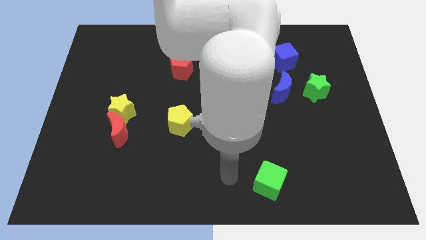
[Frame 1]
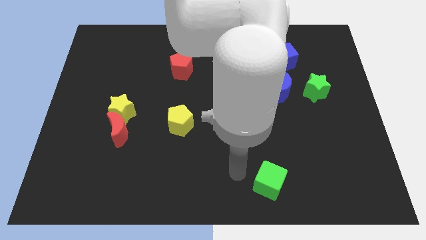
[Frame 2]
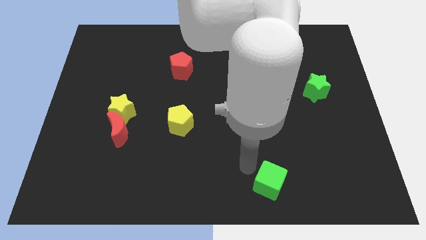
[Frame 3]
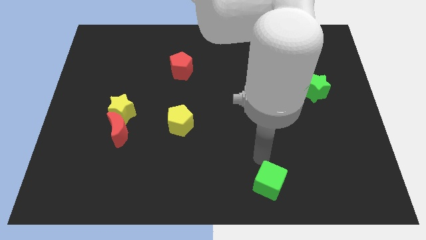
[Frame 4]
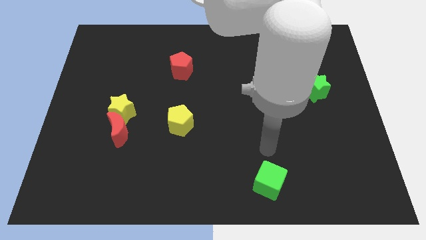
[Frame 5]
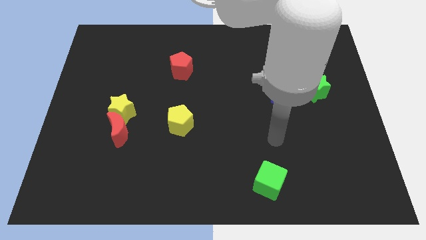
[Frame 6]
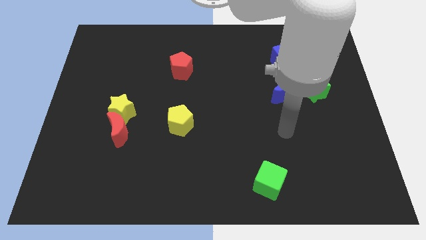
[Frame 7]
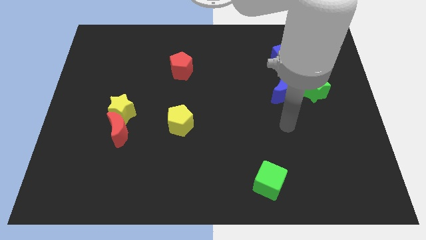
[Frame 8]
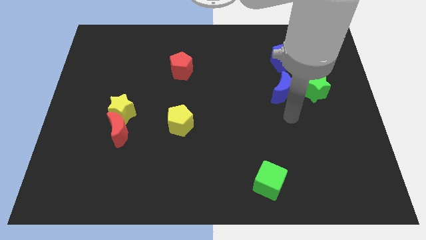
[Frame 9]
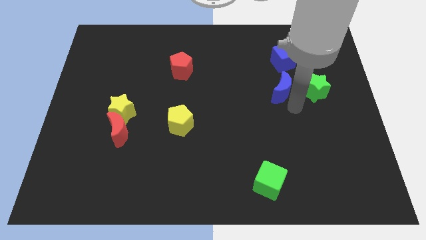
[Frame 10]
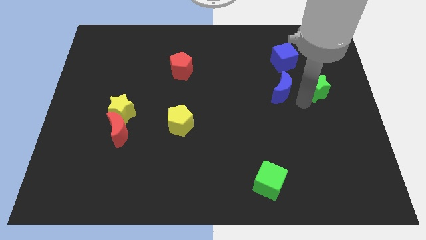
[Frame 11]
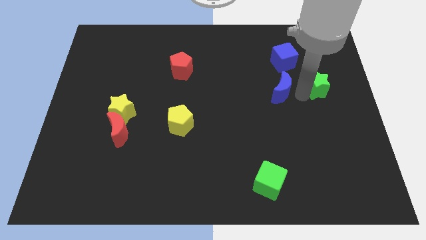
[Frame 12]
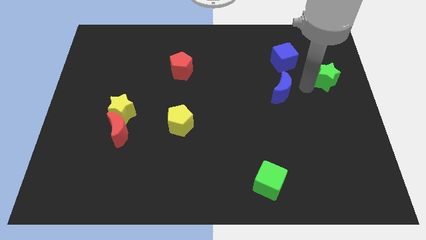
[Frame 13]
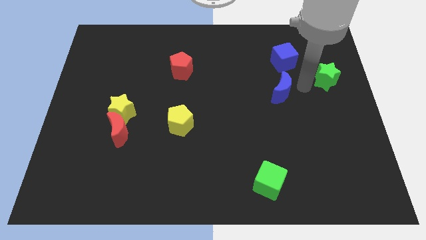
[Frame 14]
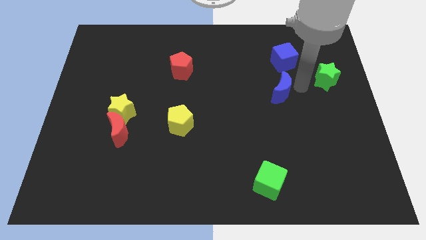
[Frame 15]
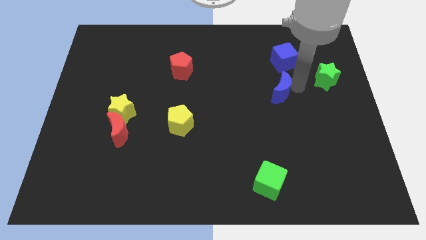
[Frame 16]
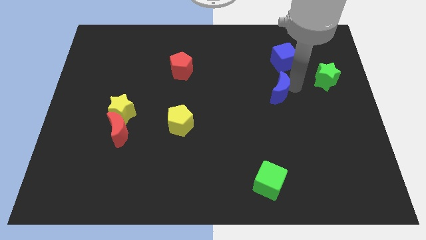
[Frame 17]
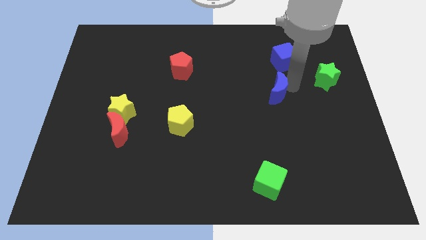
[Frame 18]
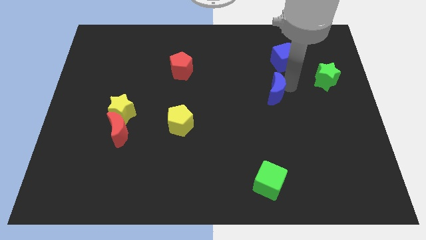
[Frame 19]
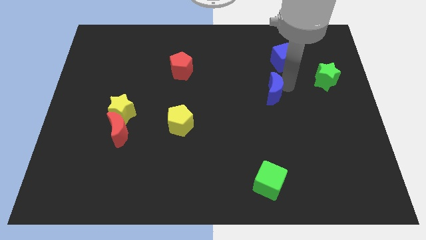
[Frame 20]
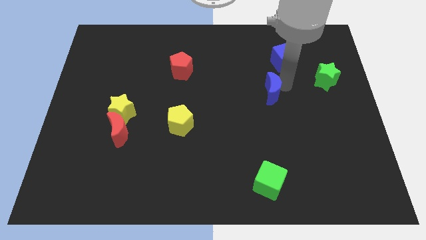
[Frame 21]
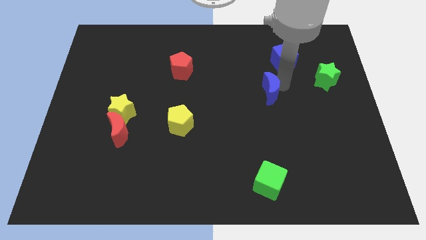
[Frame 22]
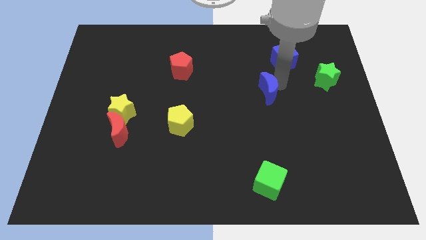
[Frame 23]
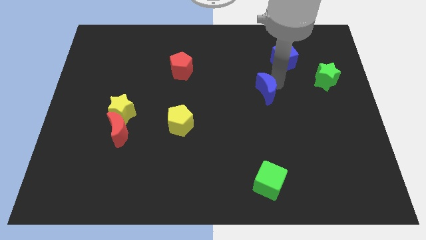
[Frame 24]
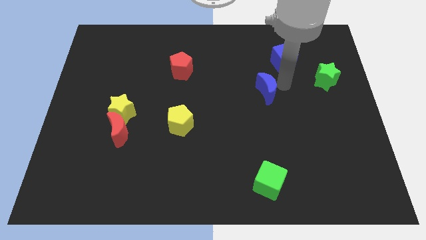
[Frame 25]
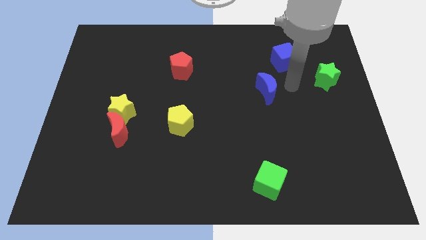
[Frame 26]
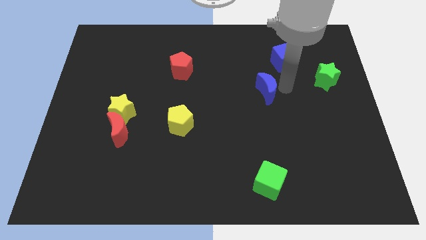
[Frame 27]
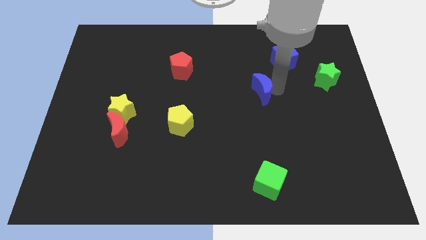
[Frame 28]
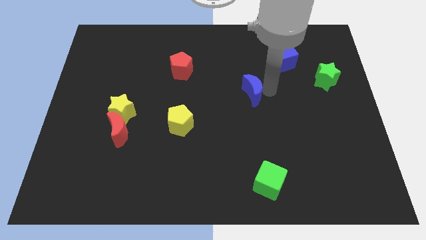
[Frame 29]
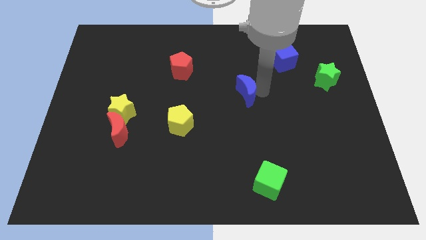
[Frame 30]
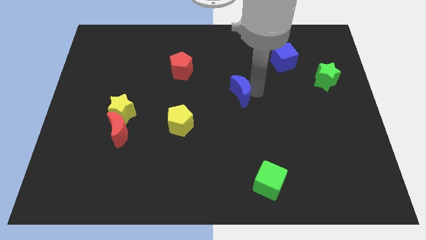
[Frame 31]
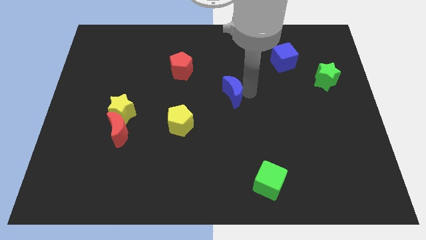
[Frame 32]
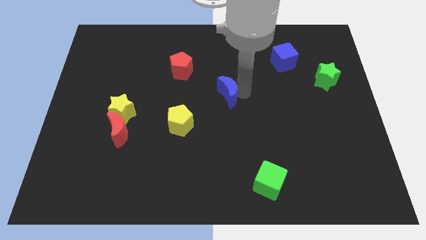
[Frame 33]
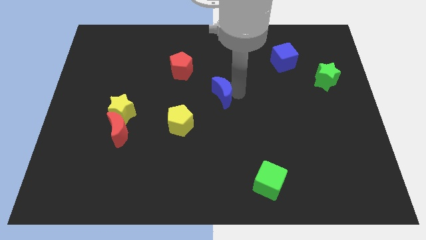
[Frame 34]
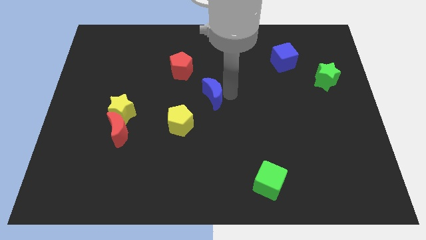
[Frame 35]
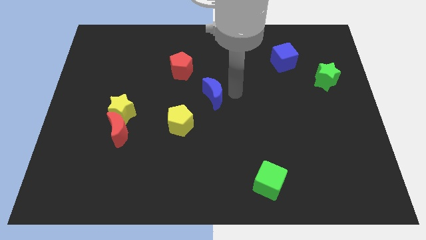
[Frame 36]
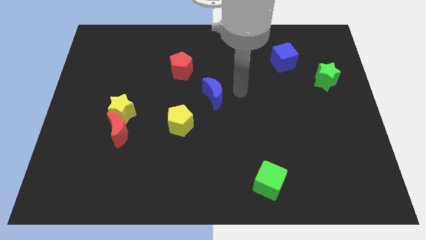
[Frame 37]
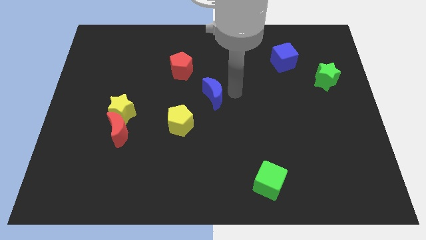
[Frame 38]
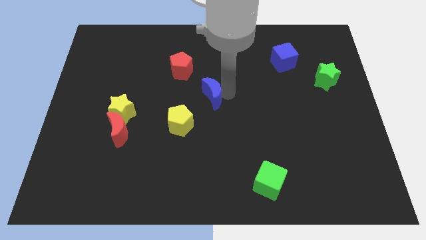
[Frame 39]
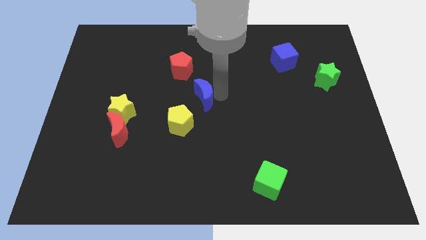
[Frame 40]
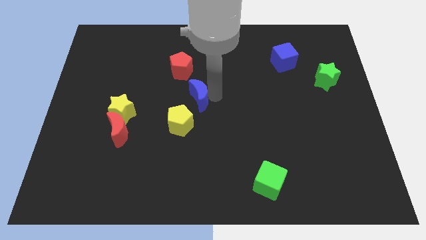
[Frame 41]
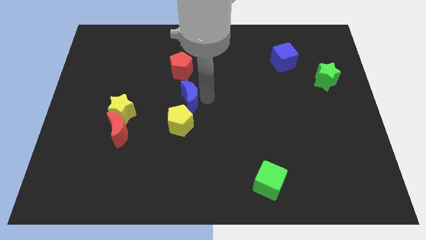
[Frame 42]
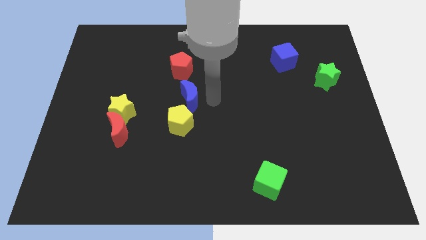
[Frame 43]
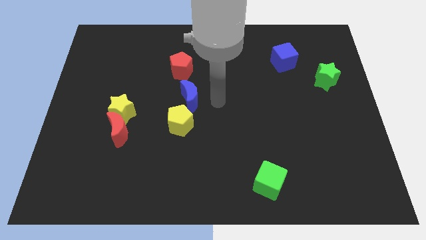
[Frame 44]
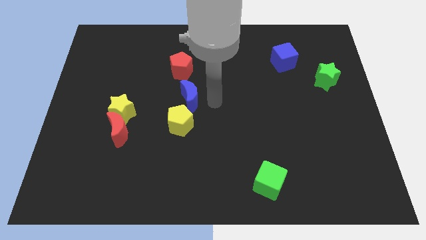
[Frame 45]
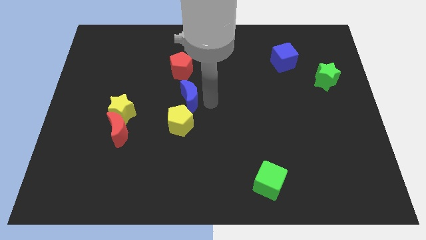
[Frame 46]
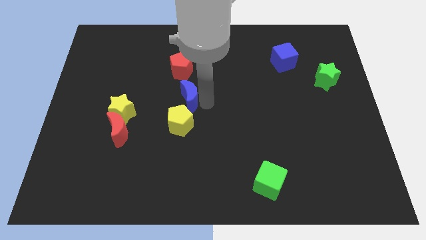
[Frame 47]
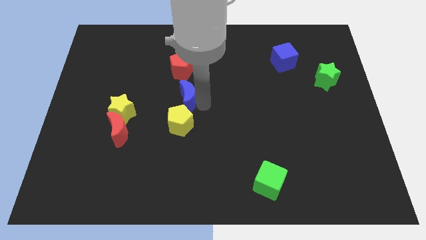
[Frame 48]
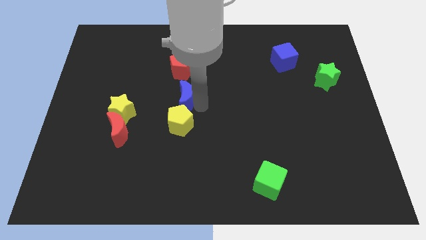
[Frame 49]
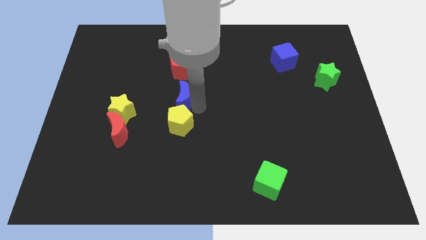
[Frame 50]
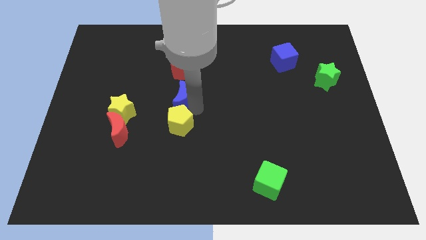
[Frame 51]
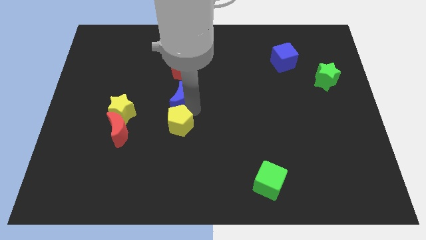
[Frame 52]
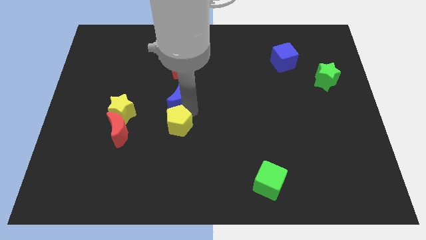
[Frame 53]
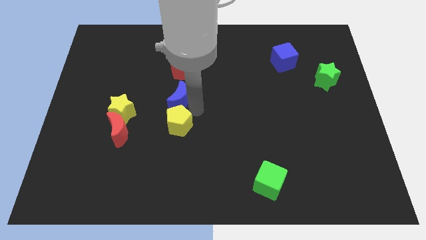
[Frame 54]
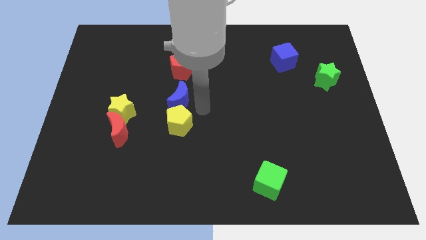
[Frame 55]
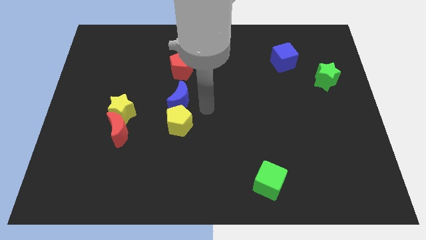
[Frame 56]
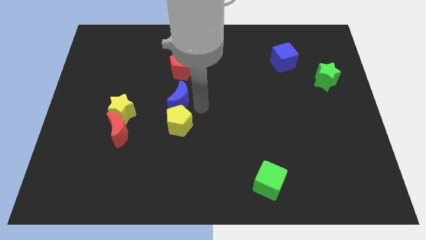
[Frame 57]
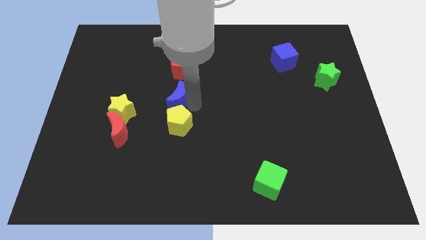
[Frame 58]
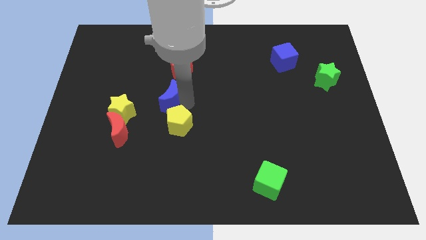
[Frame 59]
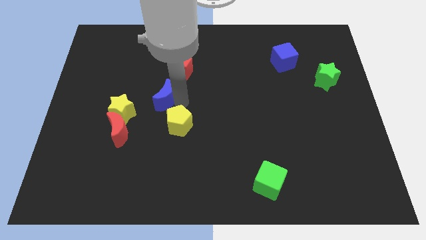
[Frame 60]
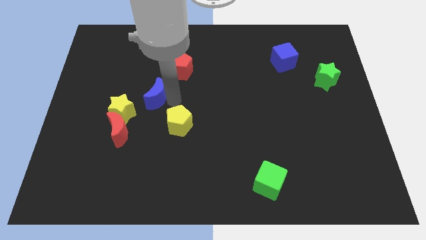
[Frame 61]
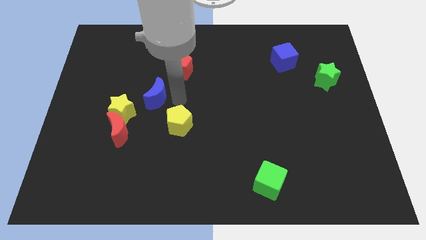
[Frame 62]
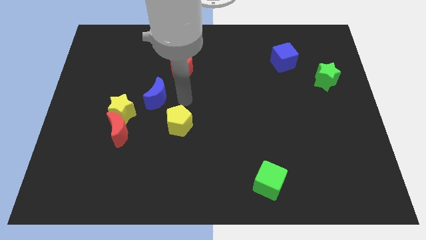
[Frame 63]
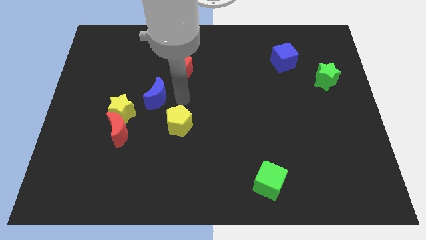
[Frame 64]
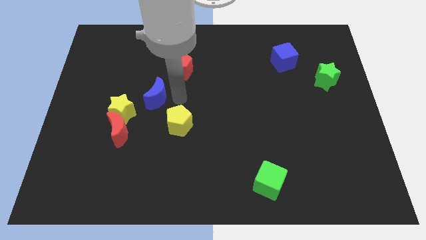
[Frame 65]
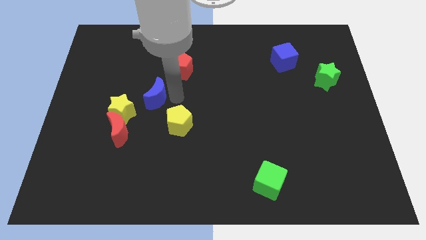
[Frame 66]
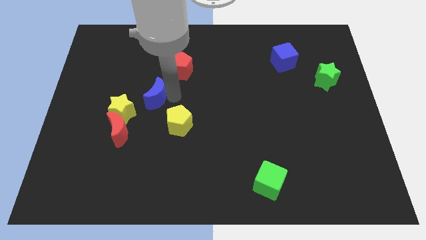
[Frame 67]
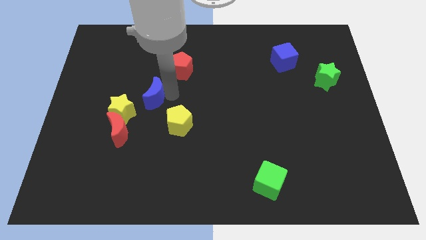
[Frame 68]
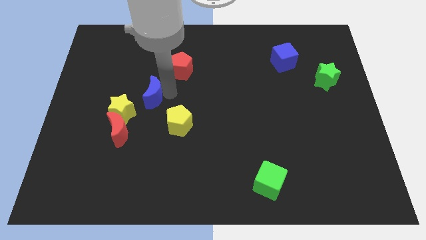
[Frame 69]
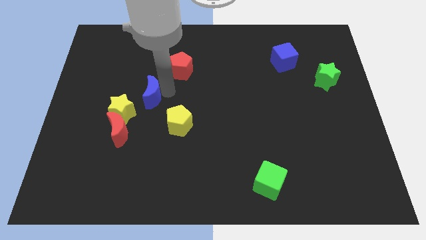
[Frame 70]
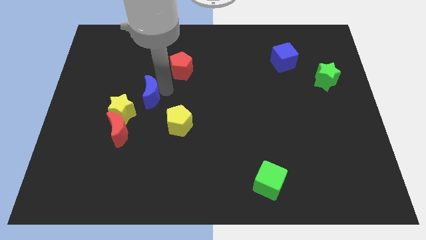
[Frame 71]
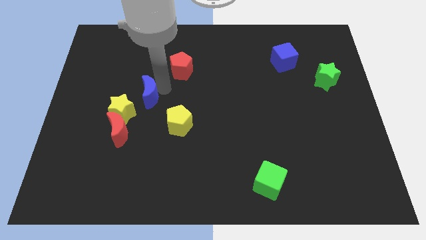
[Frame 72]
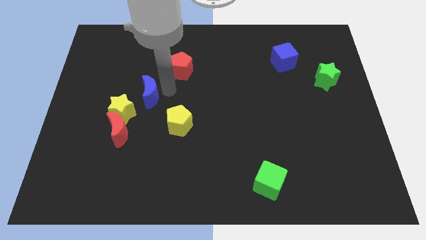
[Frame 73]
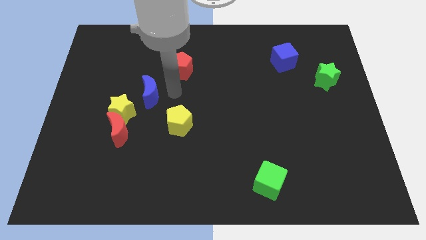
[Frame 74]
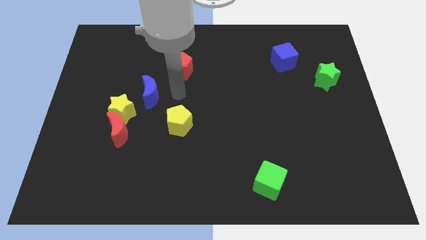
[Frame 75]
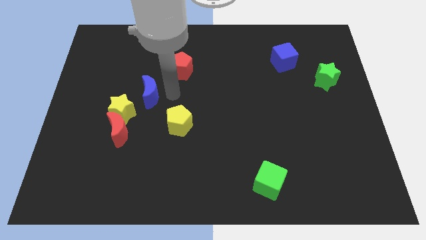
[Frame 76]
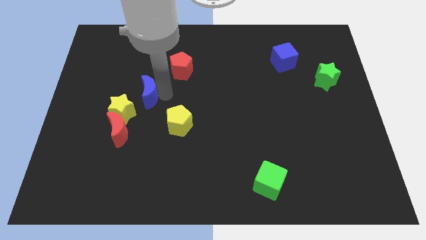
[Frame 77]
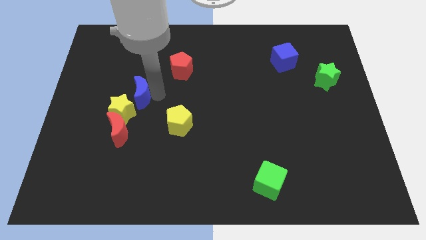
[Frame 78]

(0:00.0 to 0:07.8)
move the blue moon above the red moon
